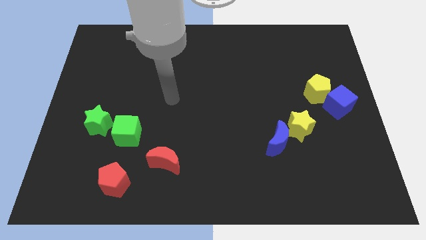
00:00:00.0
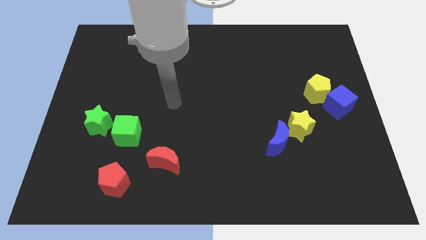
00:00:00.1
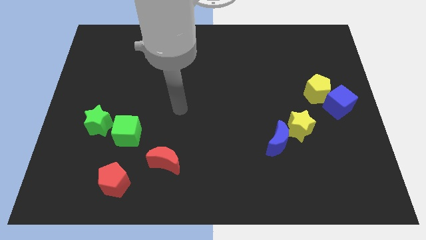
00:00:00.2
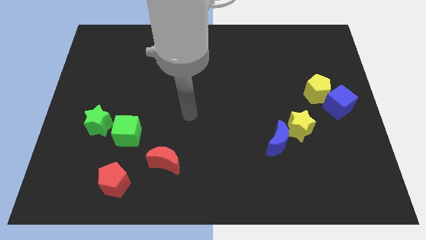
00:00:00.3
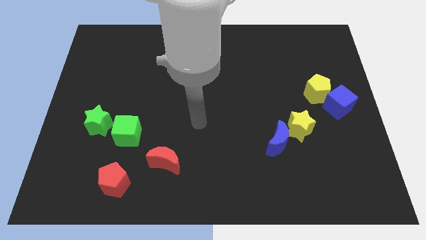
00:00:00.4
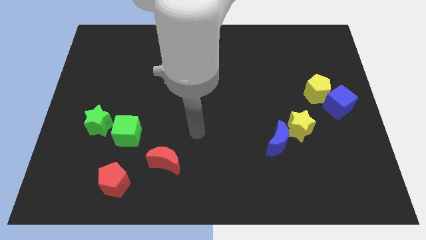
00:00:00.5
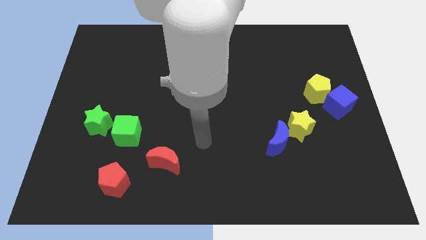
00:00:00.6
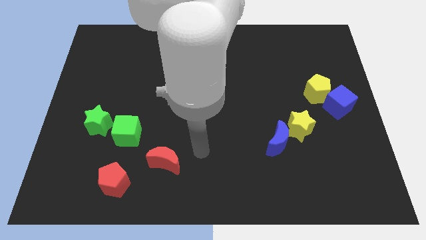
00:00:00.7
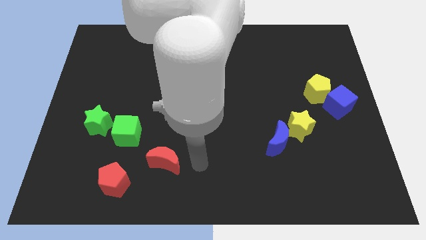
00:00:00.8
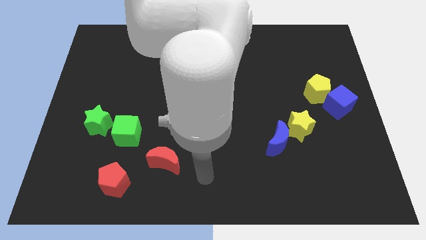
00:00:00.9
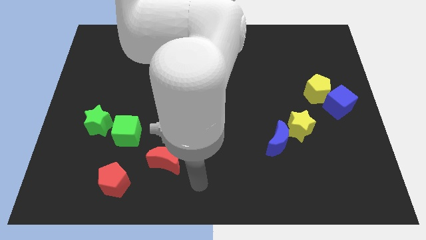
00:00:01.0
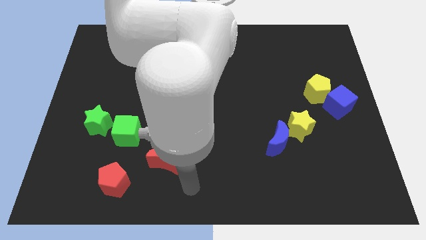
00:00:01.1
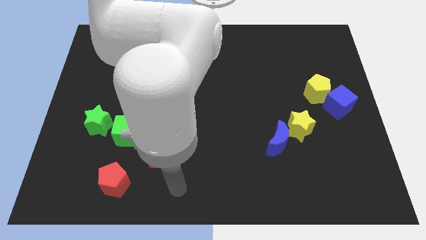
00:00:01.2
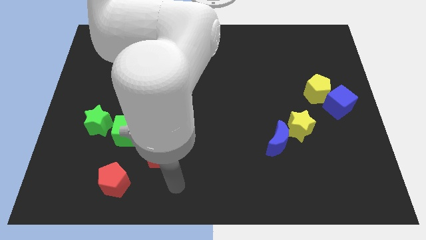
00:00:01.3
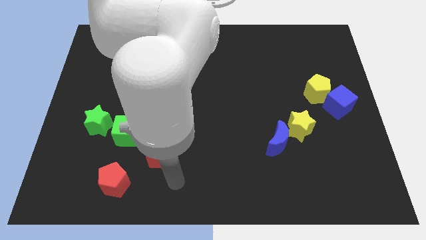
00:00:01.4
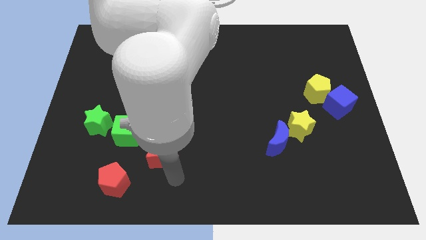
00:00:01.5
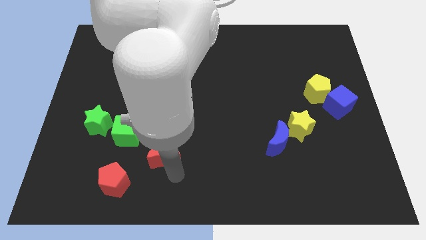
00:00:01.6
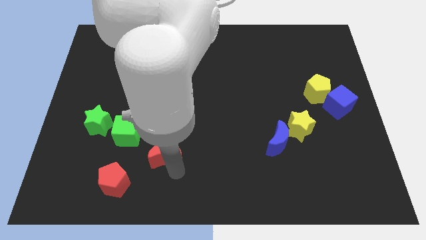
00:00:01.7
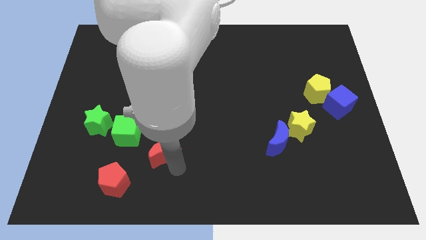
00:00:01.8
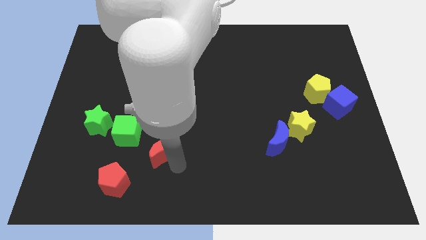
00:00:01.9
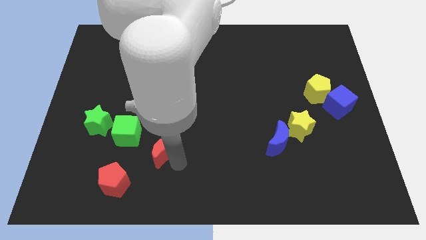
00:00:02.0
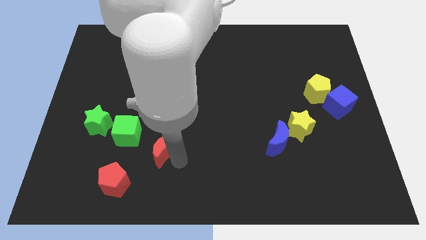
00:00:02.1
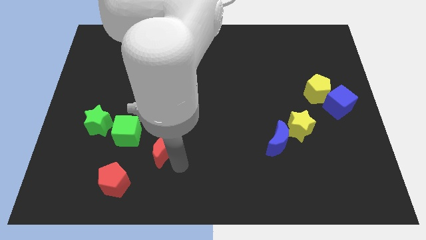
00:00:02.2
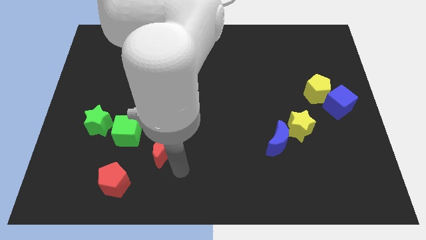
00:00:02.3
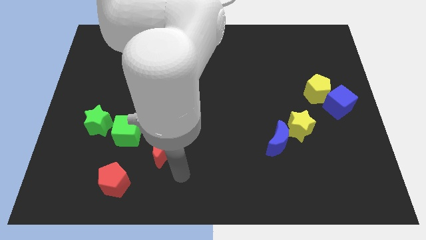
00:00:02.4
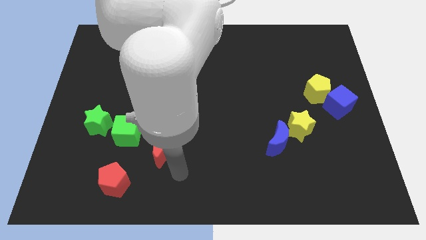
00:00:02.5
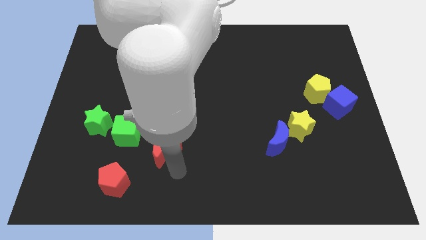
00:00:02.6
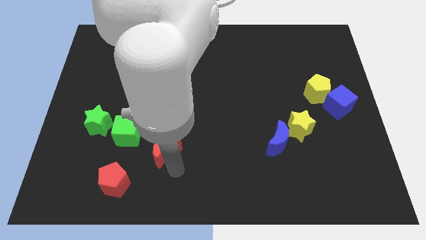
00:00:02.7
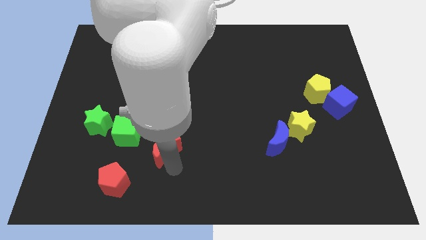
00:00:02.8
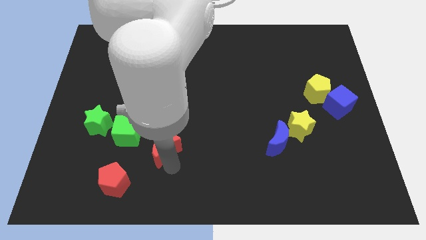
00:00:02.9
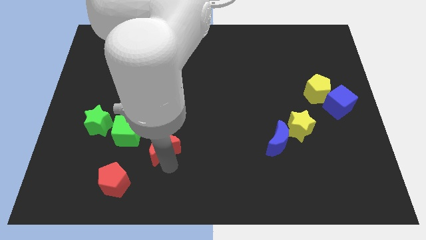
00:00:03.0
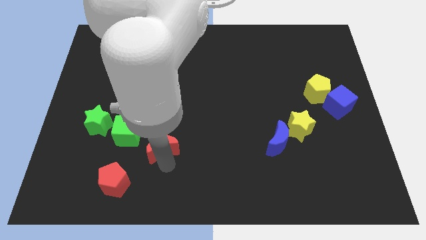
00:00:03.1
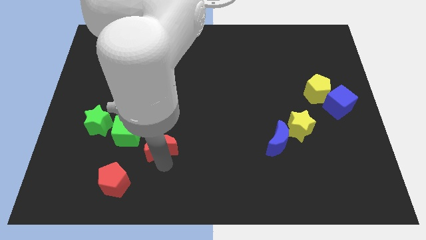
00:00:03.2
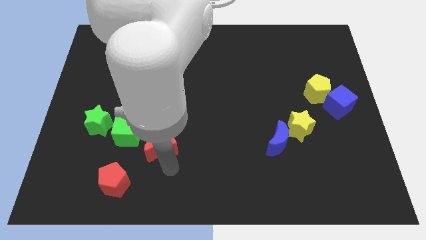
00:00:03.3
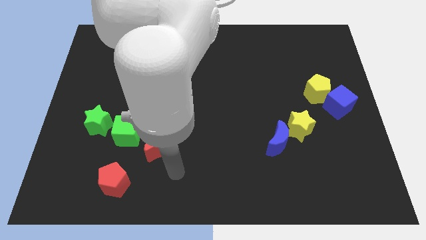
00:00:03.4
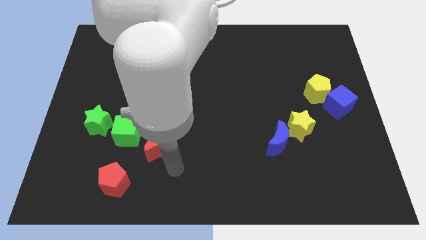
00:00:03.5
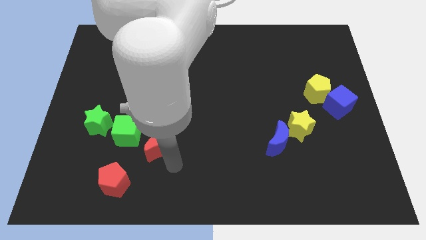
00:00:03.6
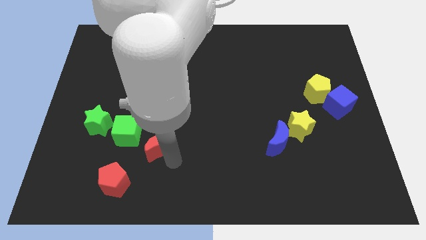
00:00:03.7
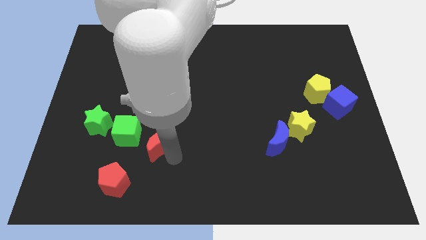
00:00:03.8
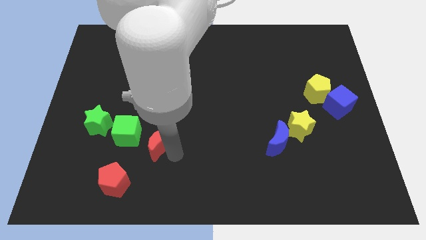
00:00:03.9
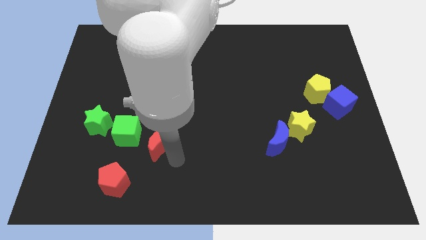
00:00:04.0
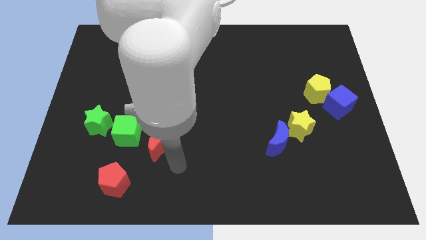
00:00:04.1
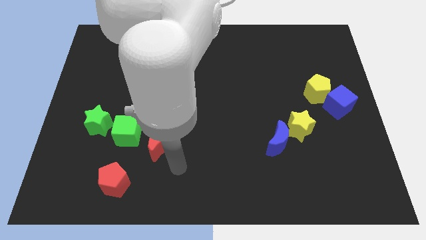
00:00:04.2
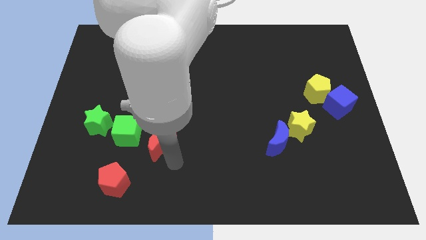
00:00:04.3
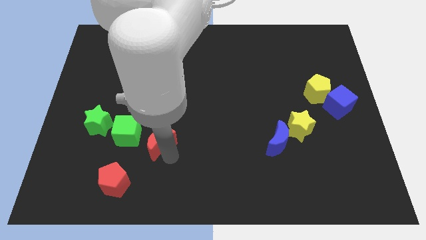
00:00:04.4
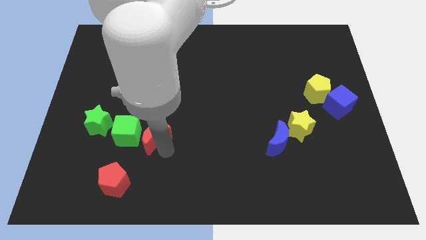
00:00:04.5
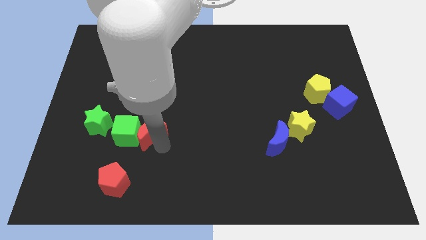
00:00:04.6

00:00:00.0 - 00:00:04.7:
slightly push the red moon up and then to the left

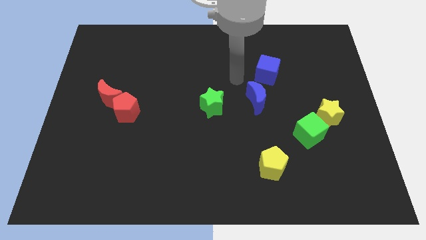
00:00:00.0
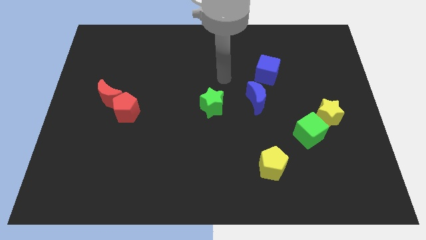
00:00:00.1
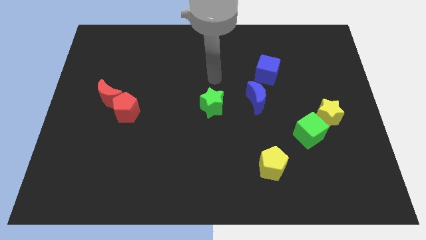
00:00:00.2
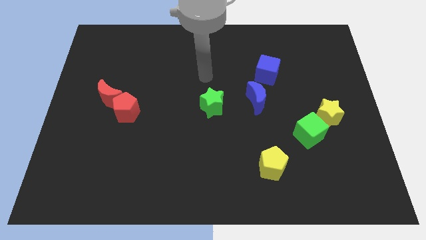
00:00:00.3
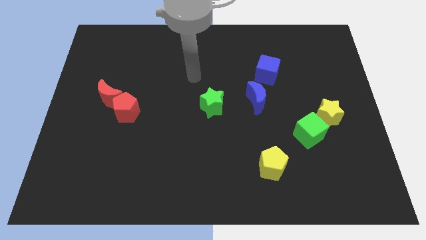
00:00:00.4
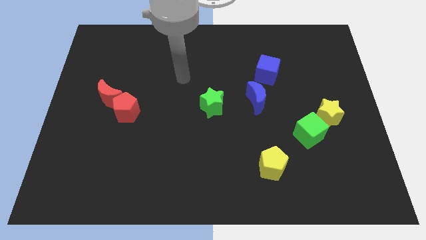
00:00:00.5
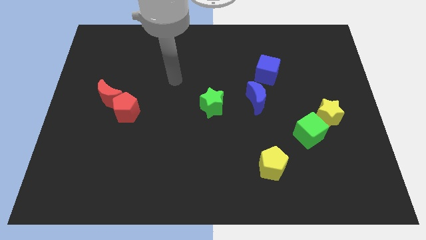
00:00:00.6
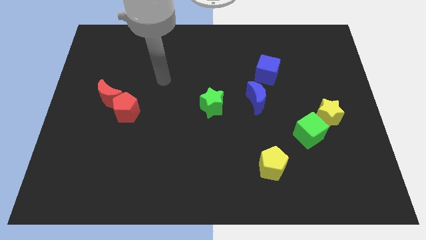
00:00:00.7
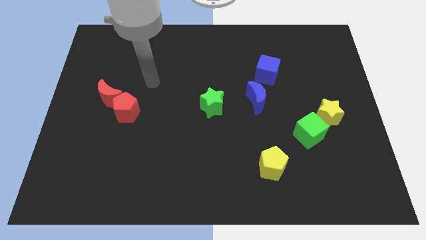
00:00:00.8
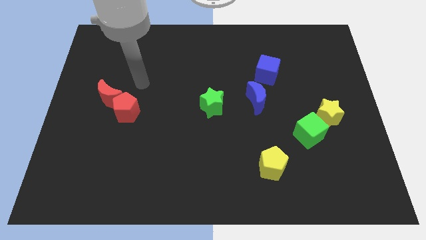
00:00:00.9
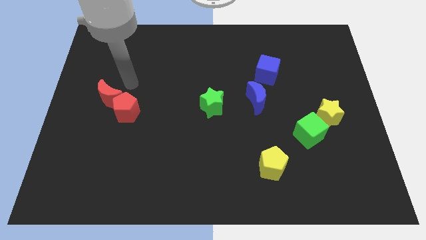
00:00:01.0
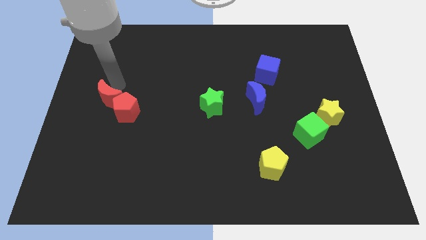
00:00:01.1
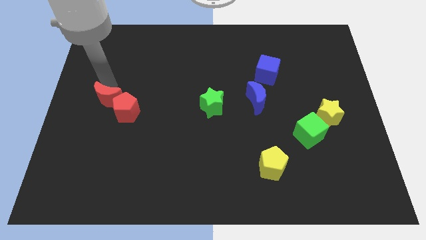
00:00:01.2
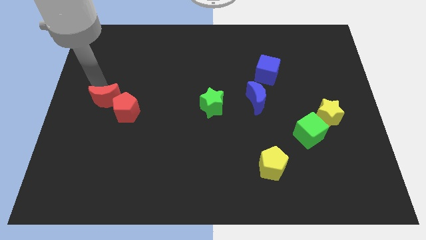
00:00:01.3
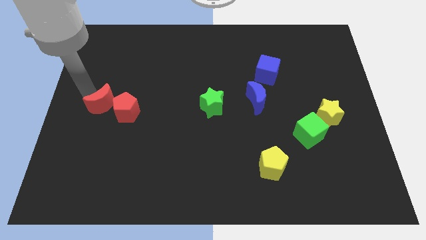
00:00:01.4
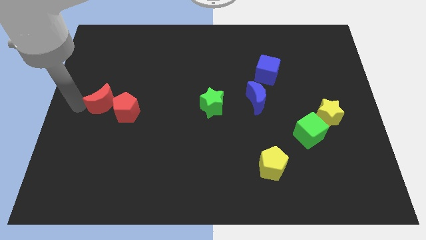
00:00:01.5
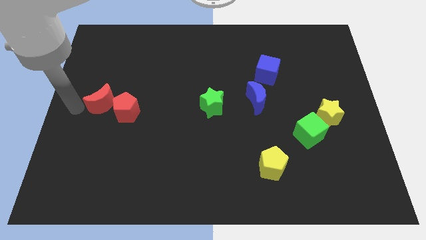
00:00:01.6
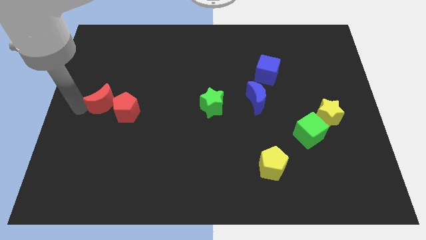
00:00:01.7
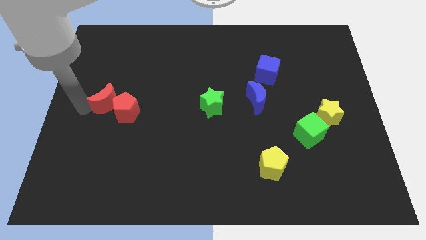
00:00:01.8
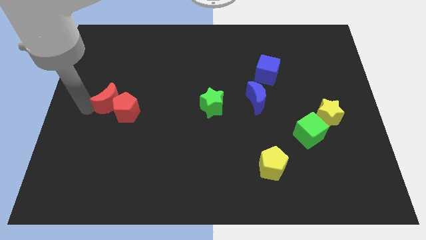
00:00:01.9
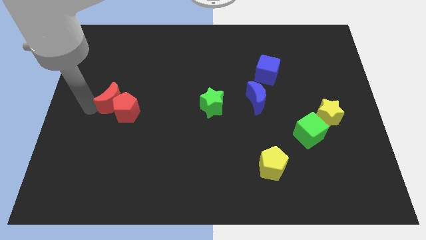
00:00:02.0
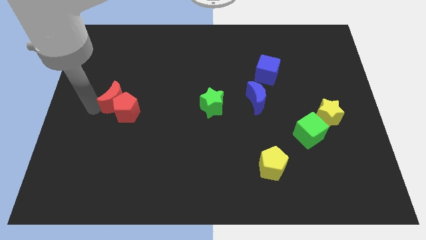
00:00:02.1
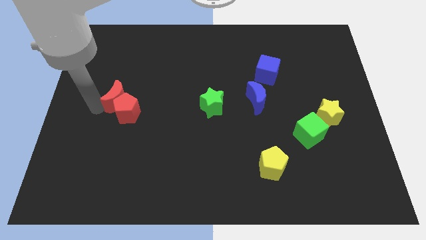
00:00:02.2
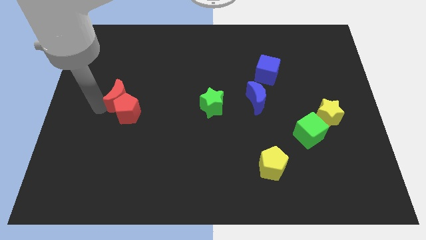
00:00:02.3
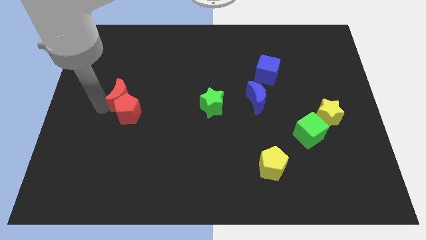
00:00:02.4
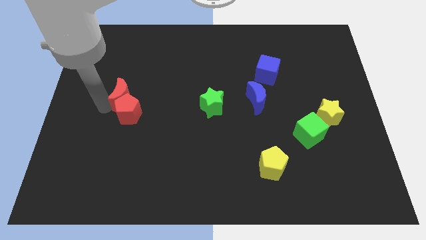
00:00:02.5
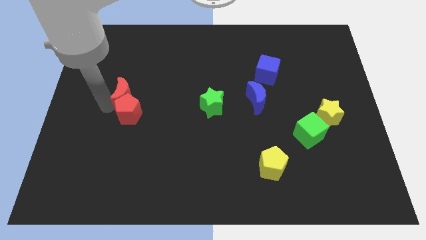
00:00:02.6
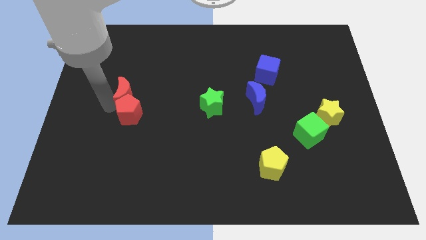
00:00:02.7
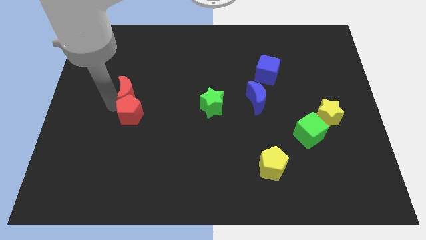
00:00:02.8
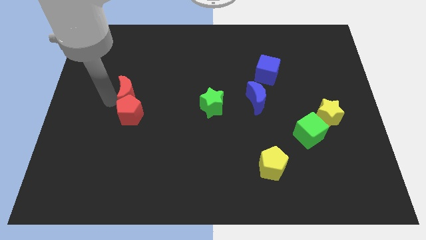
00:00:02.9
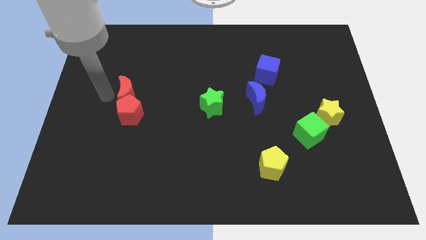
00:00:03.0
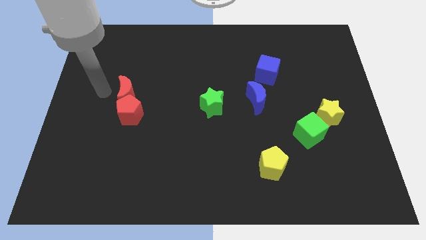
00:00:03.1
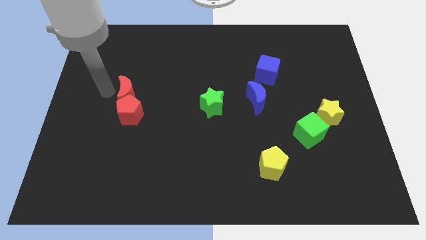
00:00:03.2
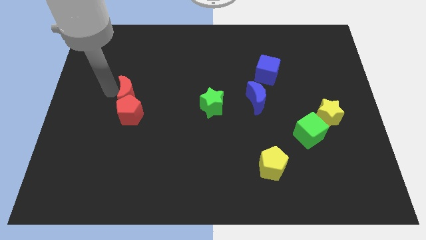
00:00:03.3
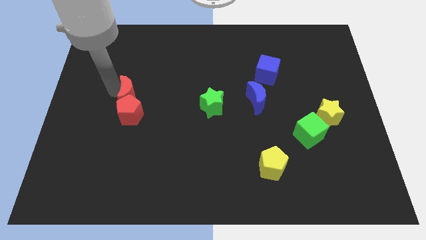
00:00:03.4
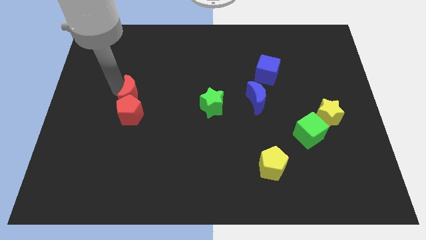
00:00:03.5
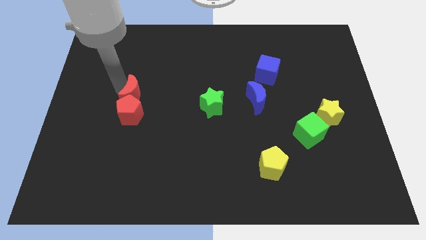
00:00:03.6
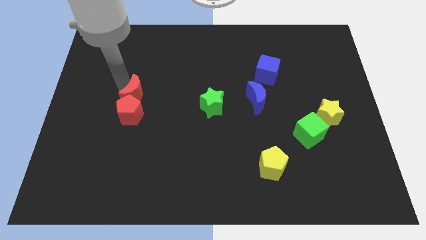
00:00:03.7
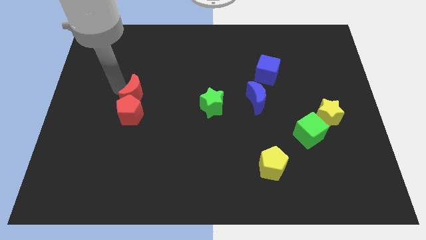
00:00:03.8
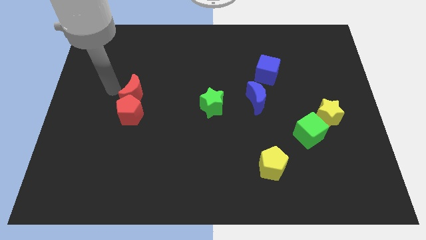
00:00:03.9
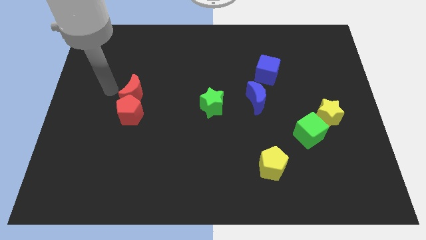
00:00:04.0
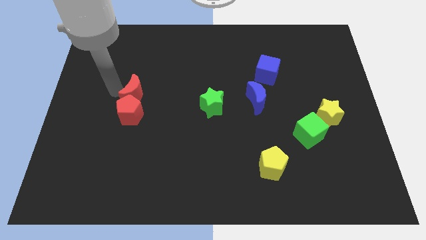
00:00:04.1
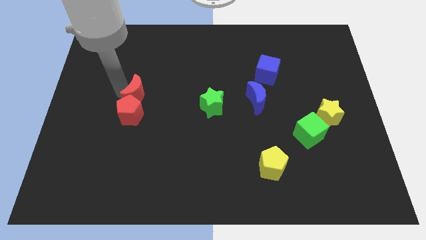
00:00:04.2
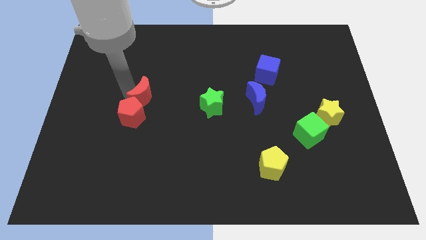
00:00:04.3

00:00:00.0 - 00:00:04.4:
slide the red moon slightly right
